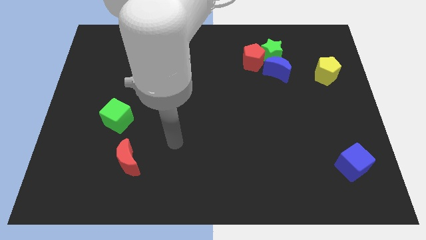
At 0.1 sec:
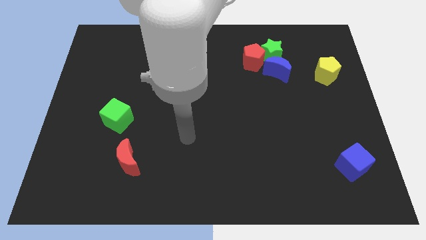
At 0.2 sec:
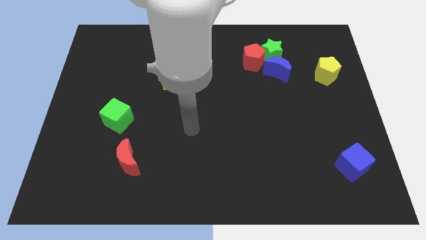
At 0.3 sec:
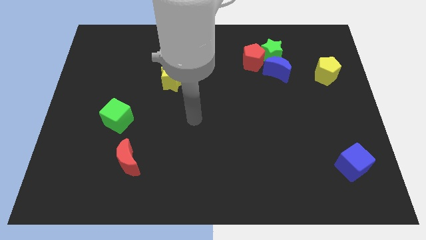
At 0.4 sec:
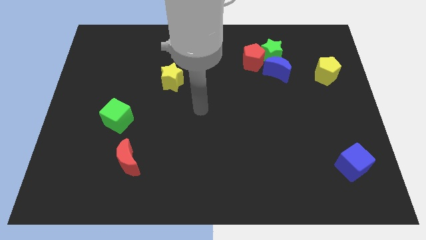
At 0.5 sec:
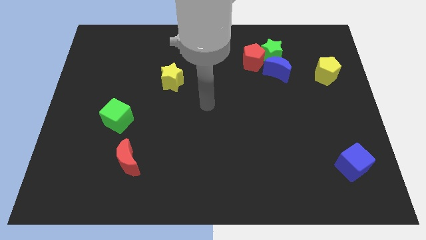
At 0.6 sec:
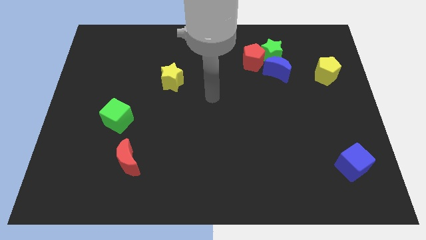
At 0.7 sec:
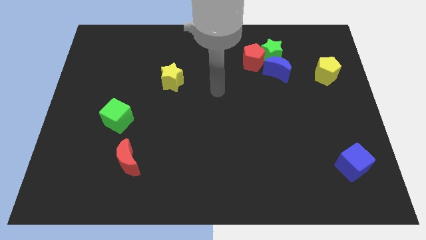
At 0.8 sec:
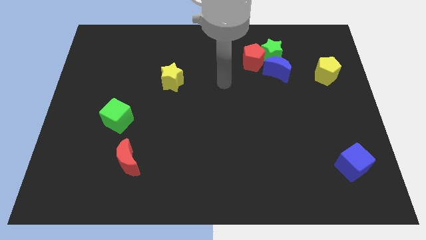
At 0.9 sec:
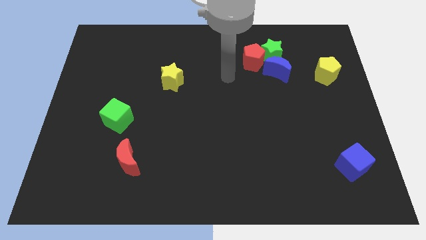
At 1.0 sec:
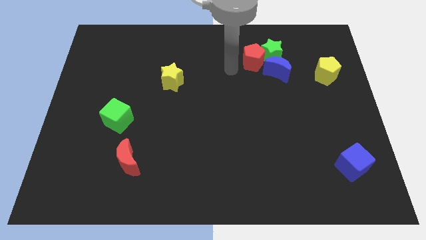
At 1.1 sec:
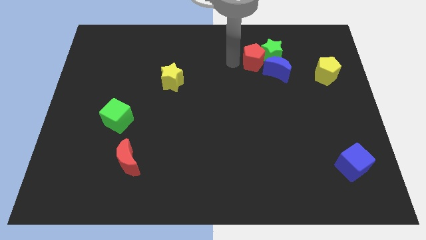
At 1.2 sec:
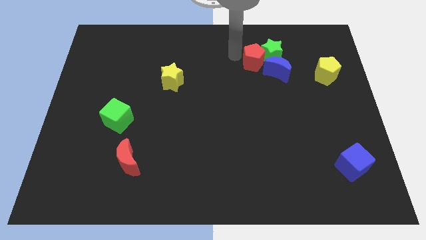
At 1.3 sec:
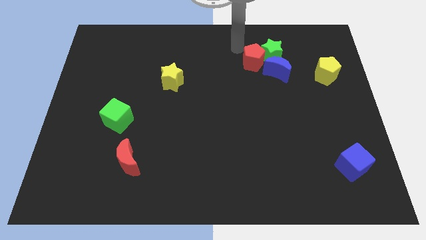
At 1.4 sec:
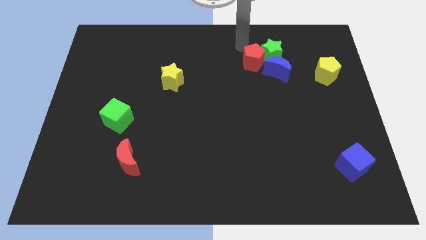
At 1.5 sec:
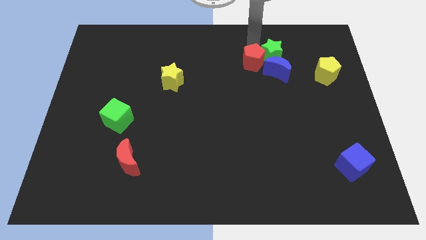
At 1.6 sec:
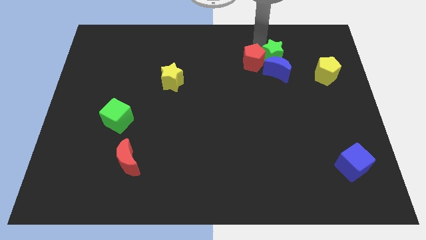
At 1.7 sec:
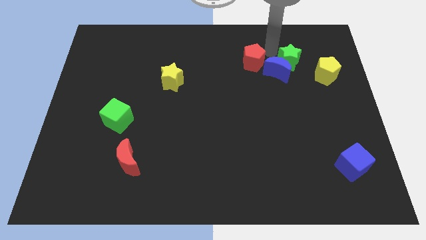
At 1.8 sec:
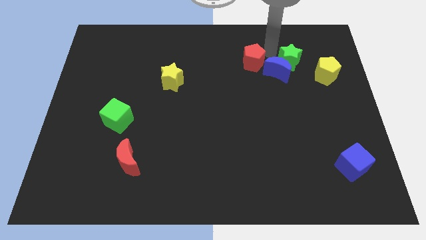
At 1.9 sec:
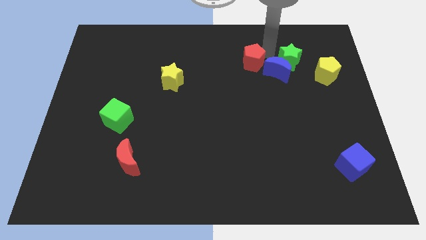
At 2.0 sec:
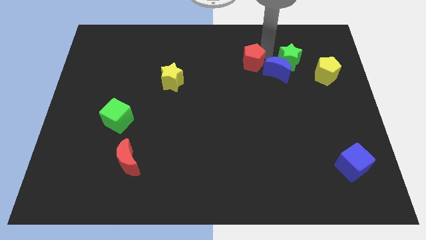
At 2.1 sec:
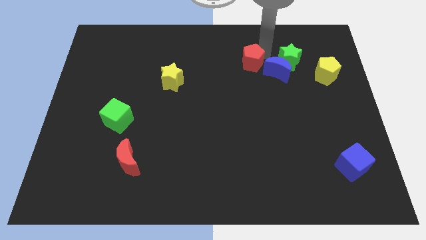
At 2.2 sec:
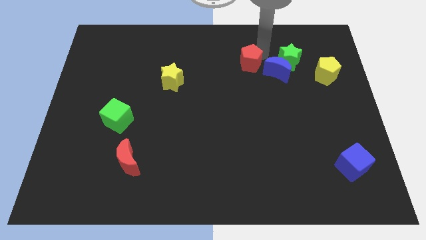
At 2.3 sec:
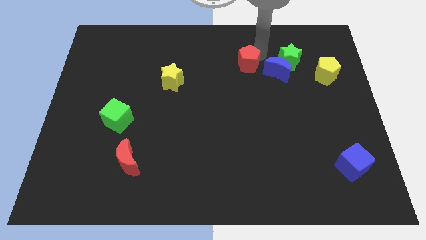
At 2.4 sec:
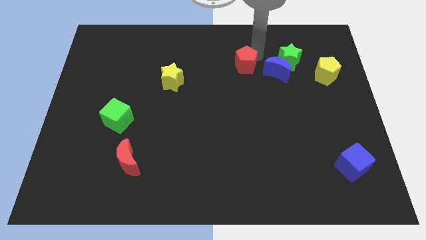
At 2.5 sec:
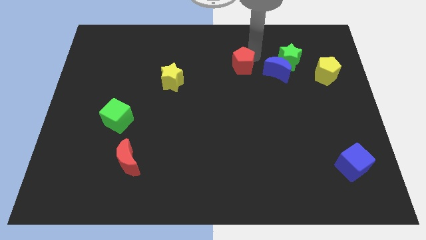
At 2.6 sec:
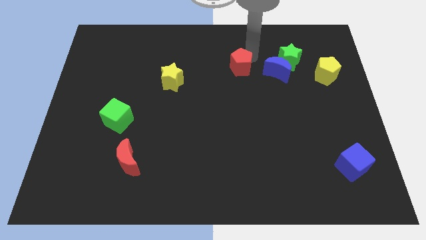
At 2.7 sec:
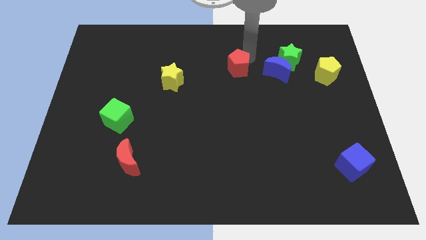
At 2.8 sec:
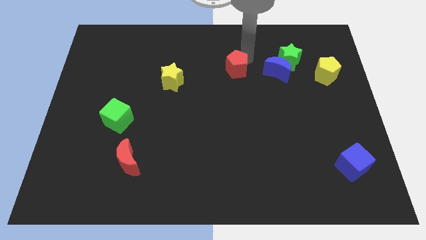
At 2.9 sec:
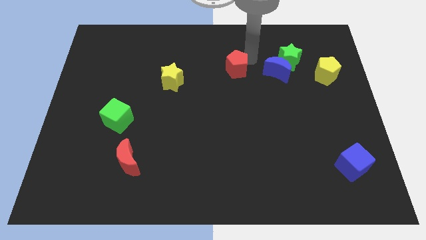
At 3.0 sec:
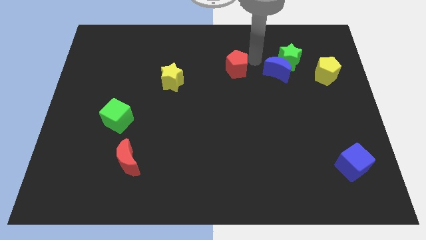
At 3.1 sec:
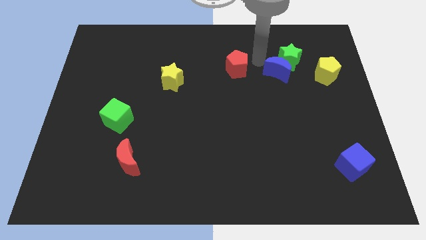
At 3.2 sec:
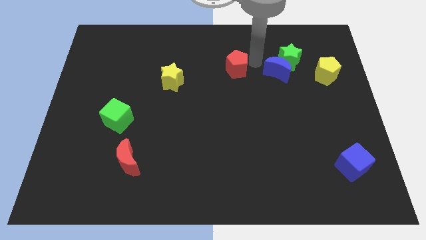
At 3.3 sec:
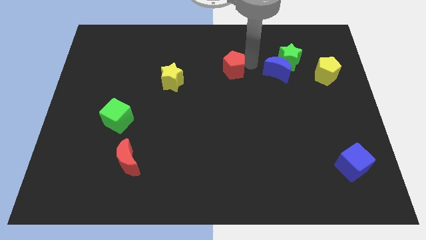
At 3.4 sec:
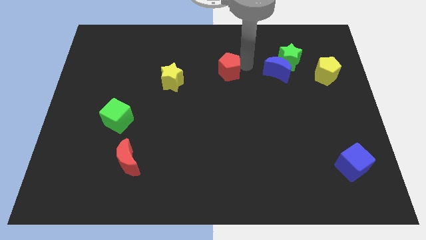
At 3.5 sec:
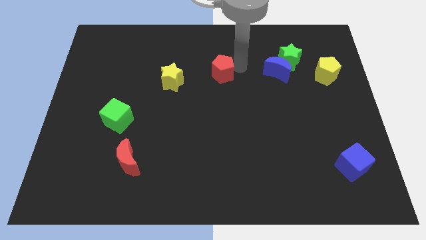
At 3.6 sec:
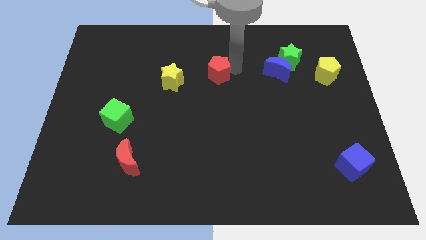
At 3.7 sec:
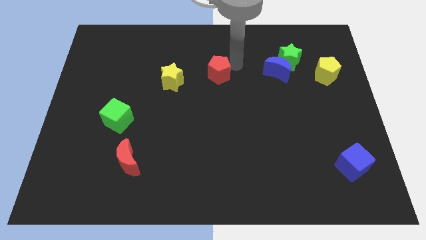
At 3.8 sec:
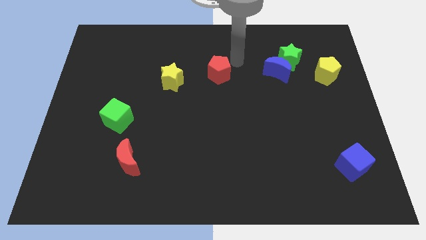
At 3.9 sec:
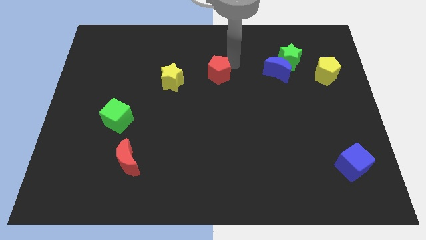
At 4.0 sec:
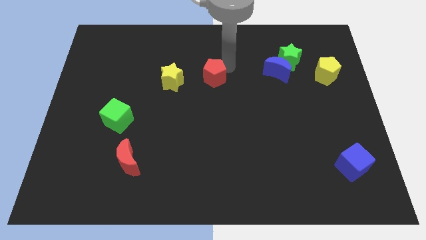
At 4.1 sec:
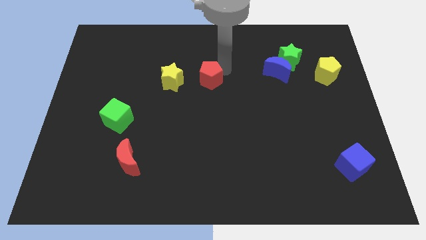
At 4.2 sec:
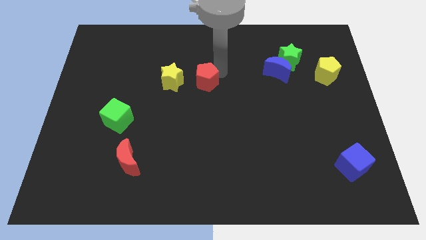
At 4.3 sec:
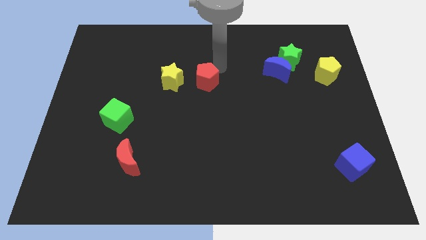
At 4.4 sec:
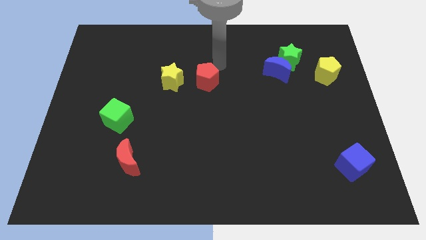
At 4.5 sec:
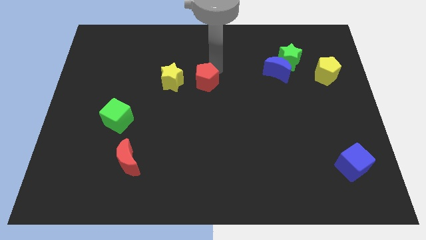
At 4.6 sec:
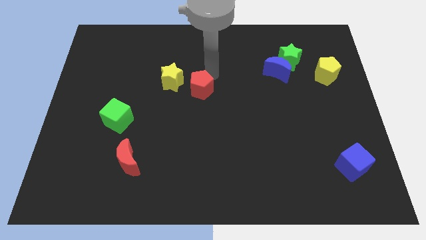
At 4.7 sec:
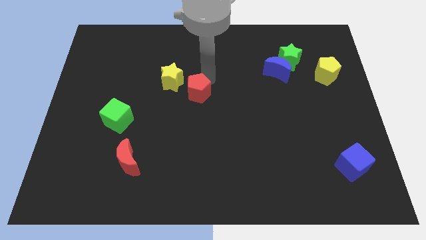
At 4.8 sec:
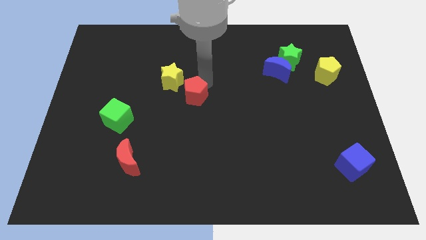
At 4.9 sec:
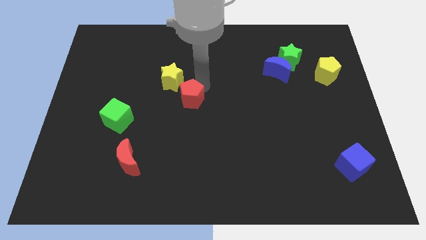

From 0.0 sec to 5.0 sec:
move the red pentagon downwards and left

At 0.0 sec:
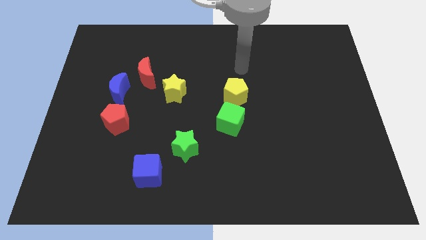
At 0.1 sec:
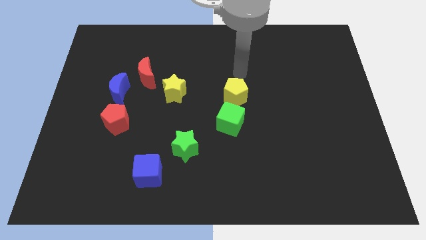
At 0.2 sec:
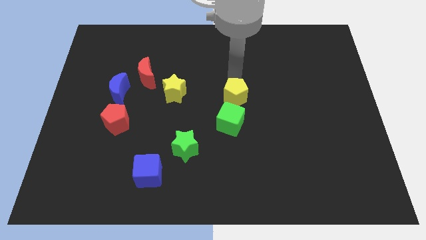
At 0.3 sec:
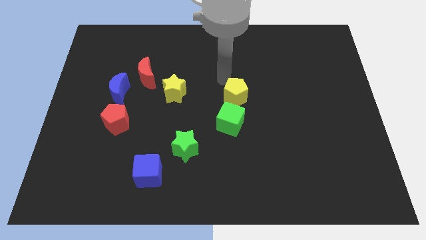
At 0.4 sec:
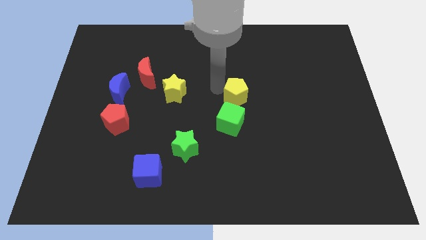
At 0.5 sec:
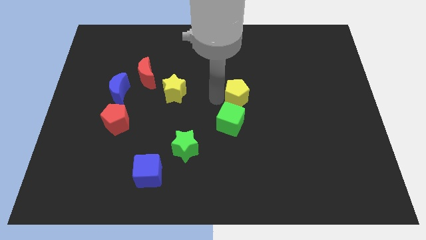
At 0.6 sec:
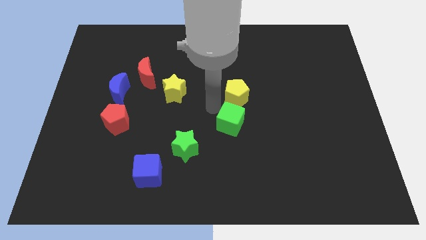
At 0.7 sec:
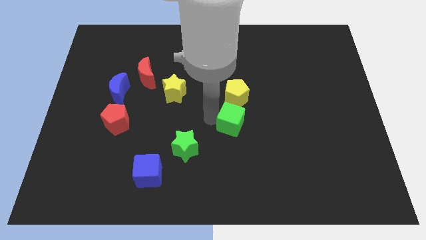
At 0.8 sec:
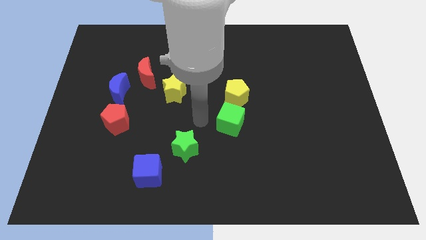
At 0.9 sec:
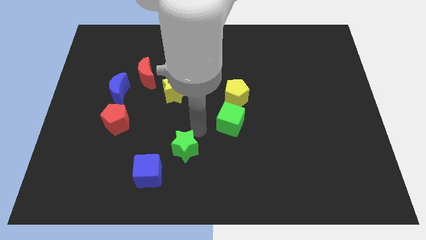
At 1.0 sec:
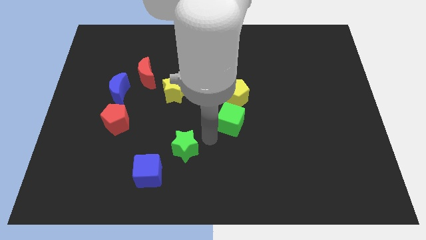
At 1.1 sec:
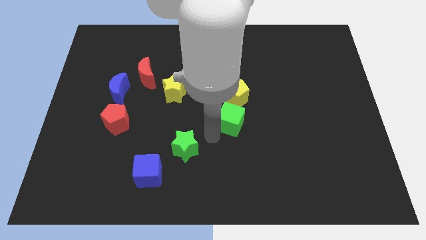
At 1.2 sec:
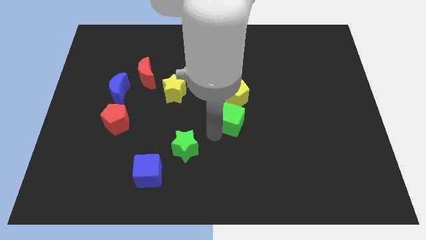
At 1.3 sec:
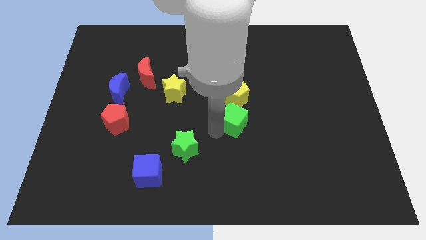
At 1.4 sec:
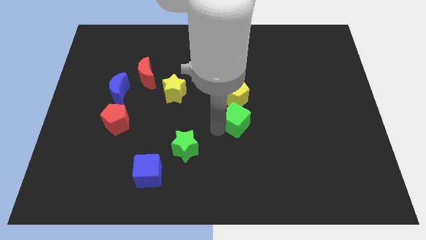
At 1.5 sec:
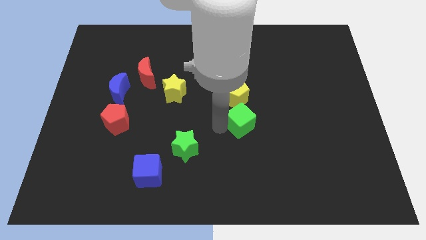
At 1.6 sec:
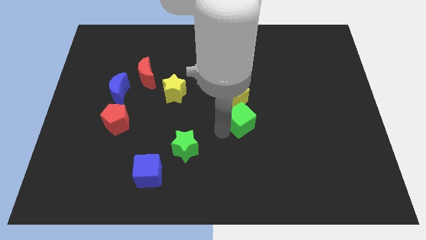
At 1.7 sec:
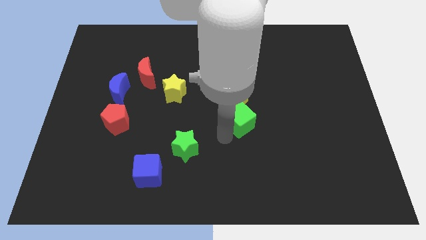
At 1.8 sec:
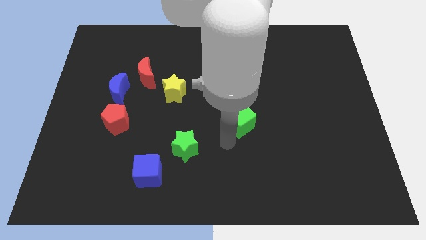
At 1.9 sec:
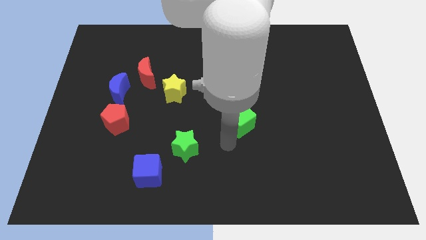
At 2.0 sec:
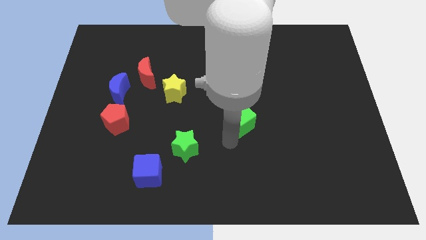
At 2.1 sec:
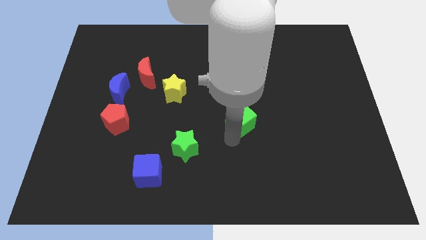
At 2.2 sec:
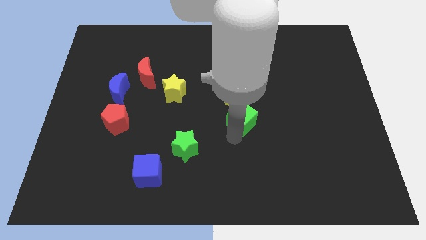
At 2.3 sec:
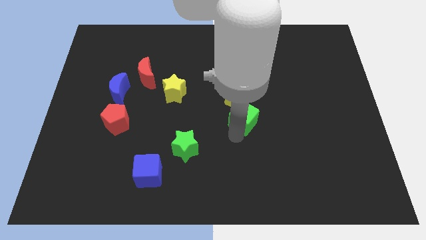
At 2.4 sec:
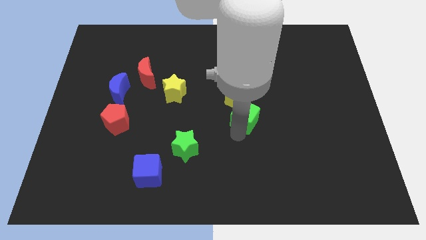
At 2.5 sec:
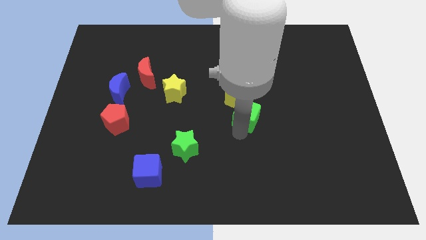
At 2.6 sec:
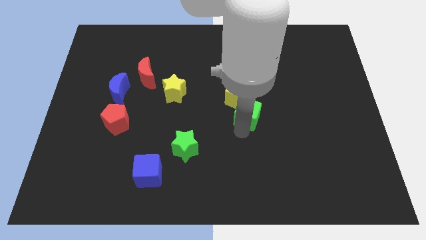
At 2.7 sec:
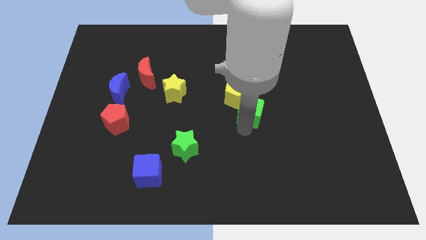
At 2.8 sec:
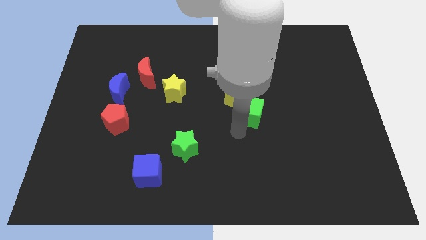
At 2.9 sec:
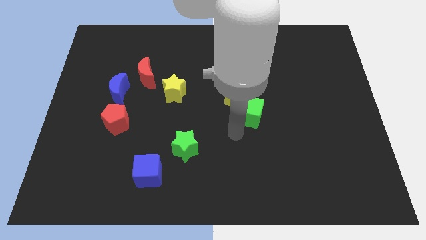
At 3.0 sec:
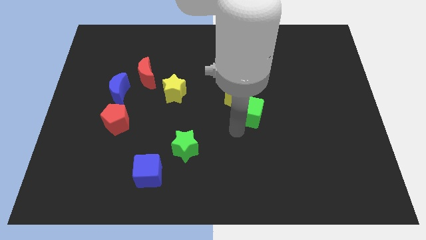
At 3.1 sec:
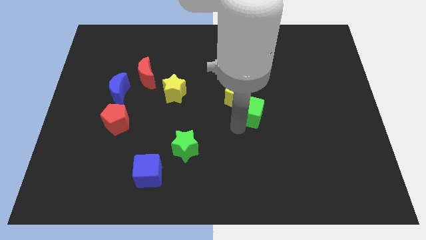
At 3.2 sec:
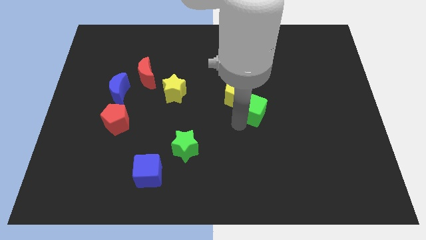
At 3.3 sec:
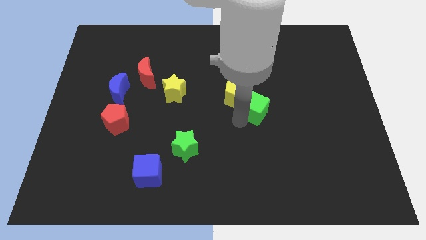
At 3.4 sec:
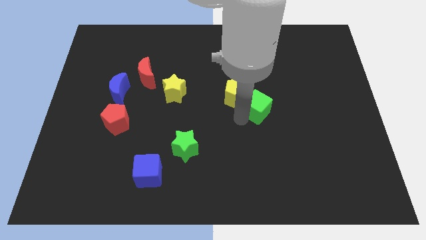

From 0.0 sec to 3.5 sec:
move the green cube a little bit diagonally upwards and right
